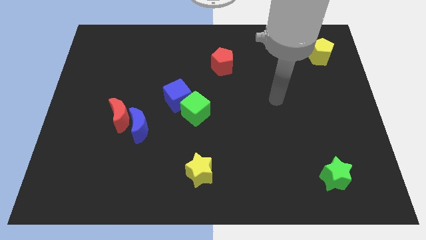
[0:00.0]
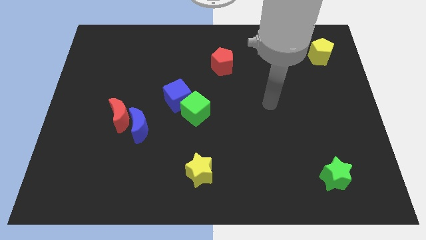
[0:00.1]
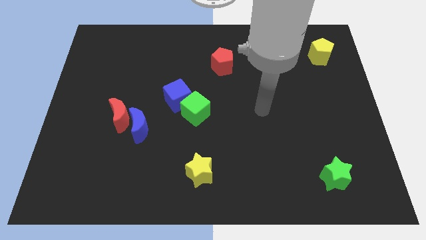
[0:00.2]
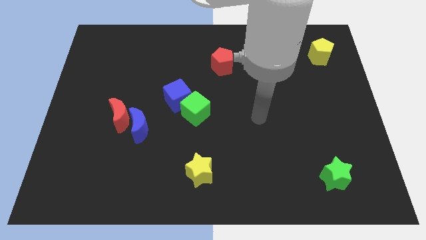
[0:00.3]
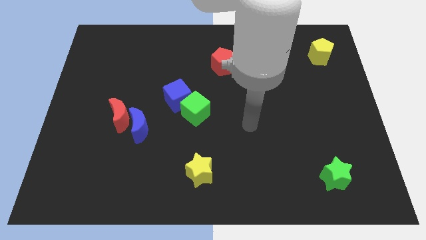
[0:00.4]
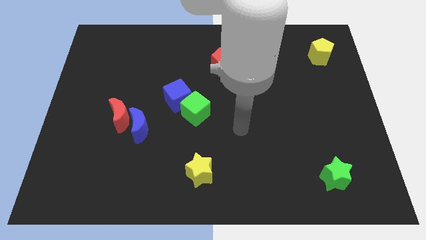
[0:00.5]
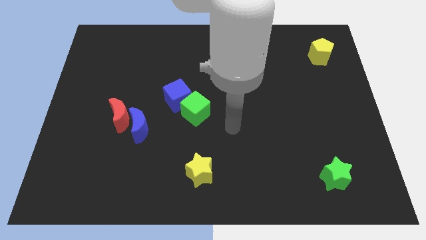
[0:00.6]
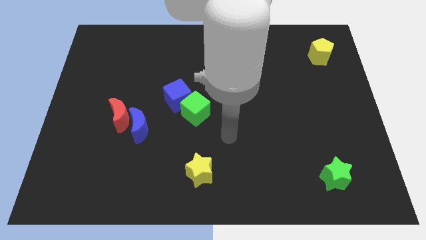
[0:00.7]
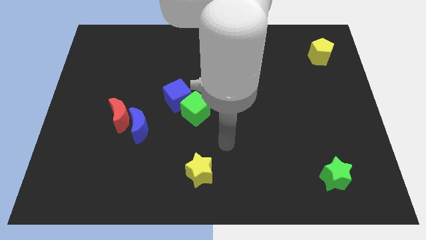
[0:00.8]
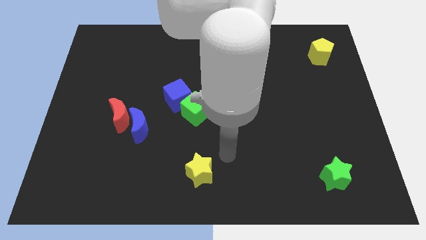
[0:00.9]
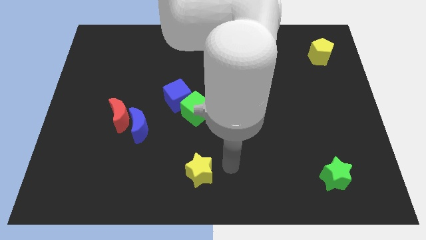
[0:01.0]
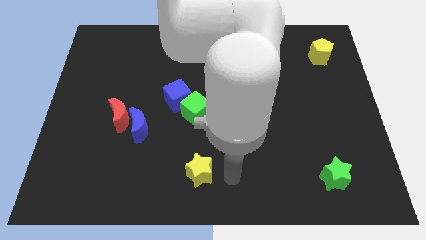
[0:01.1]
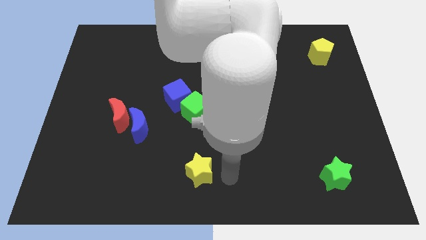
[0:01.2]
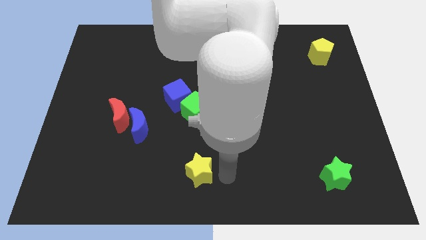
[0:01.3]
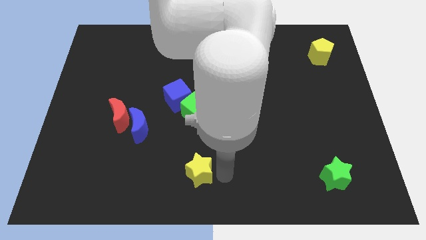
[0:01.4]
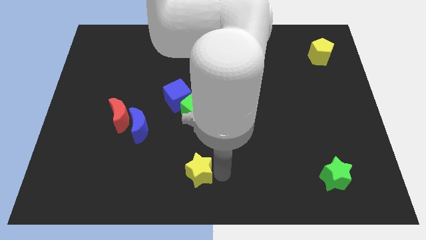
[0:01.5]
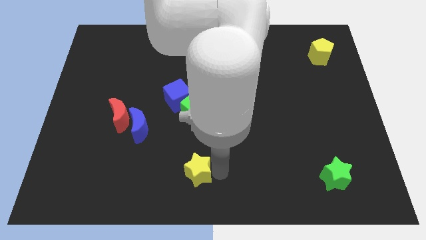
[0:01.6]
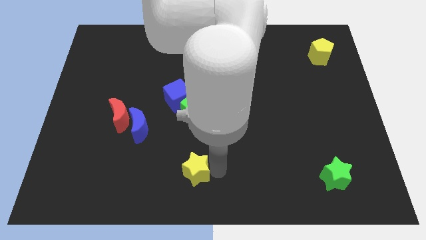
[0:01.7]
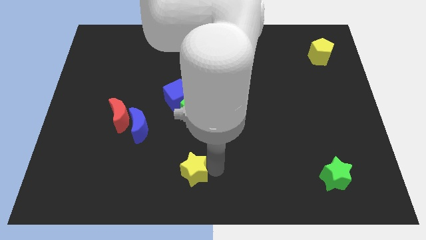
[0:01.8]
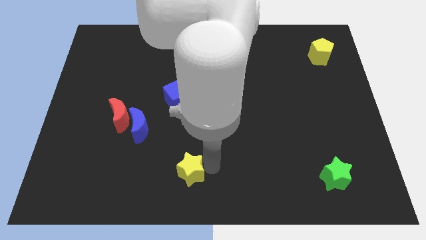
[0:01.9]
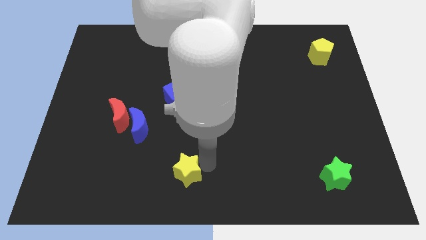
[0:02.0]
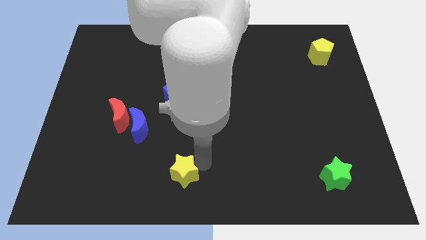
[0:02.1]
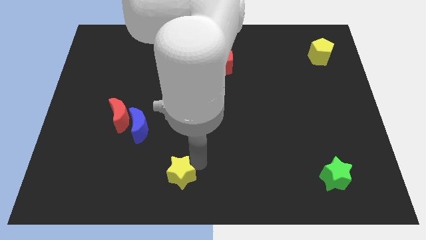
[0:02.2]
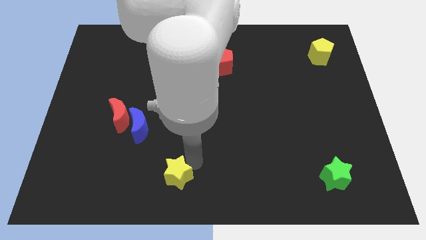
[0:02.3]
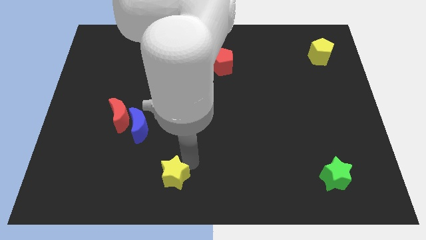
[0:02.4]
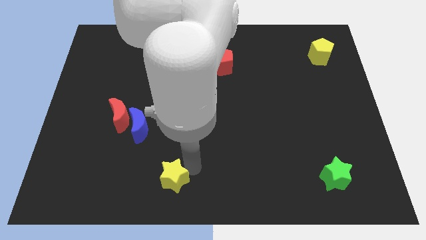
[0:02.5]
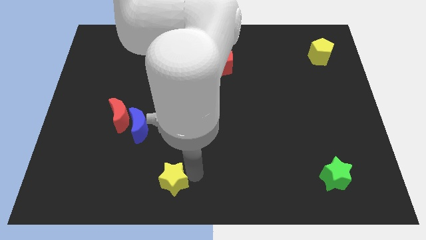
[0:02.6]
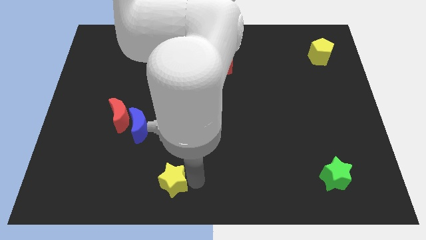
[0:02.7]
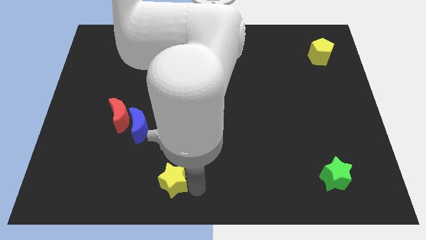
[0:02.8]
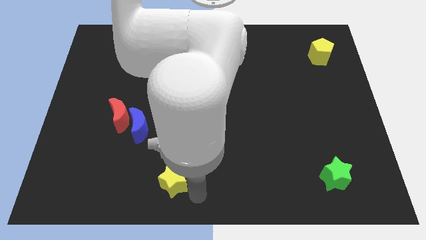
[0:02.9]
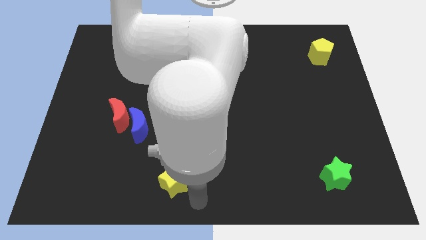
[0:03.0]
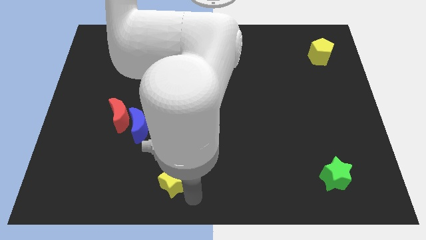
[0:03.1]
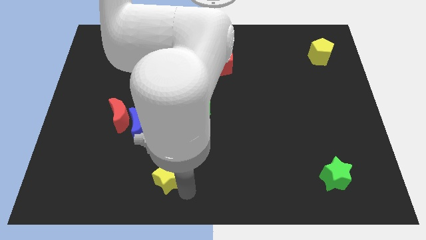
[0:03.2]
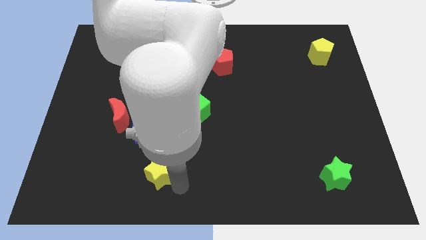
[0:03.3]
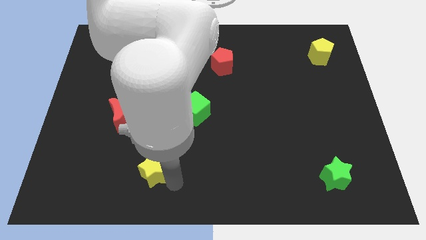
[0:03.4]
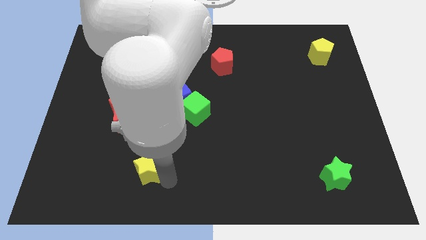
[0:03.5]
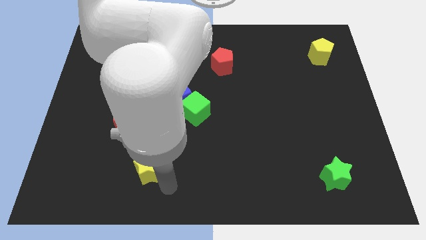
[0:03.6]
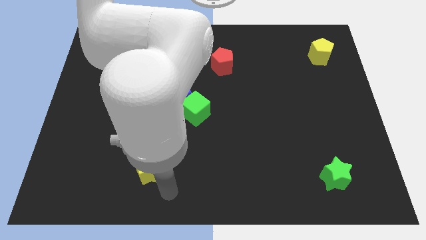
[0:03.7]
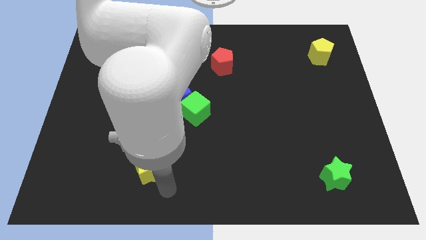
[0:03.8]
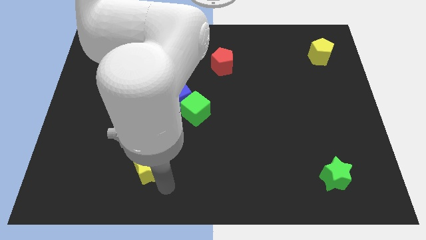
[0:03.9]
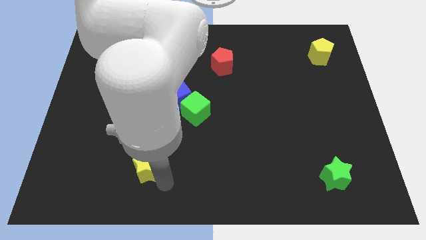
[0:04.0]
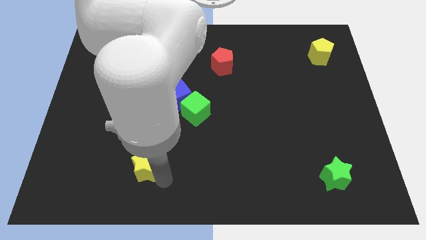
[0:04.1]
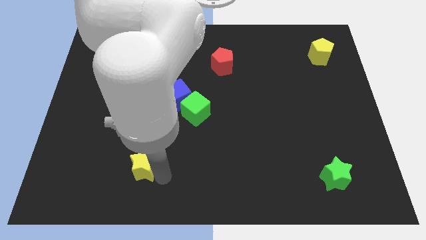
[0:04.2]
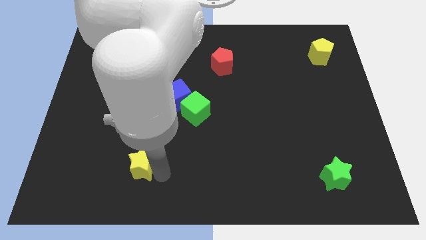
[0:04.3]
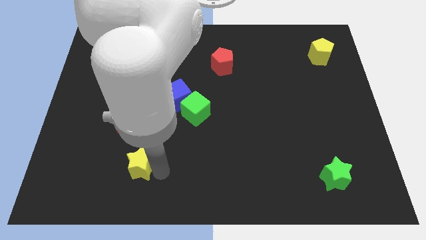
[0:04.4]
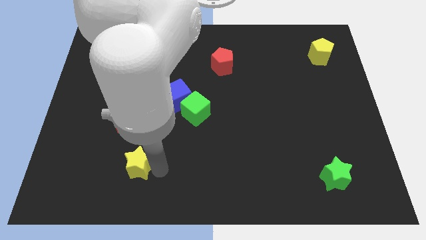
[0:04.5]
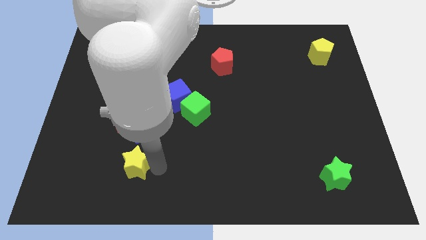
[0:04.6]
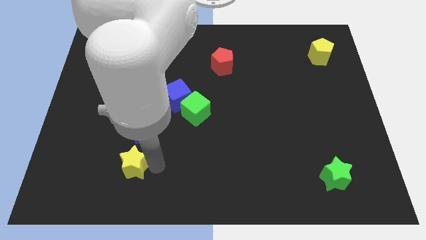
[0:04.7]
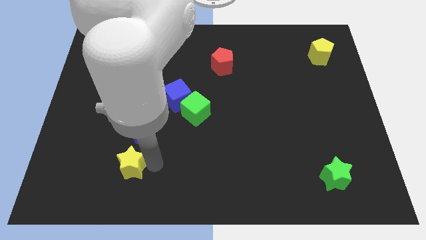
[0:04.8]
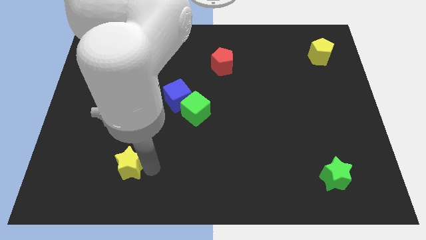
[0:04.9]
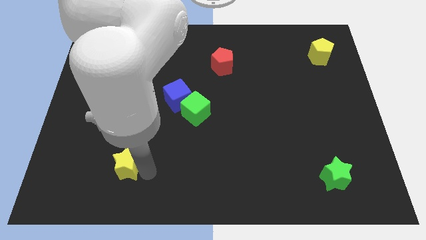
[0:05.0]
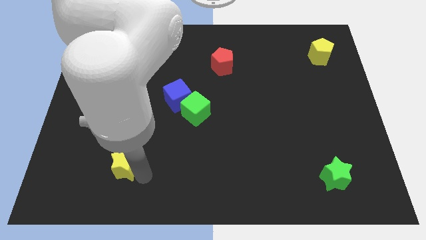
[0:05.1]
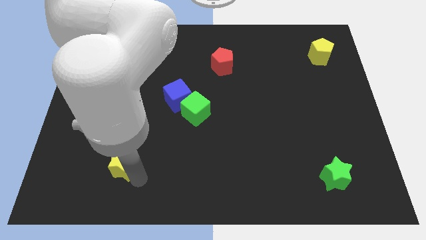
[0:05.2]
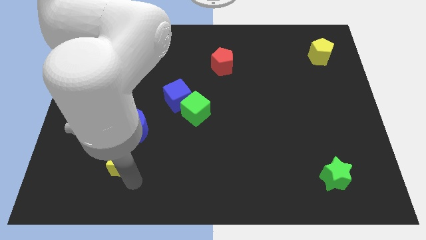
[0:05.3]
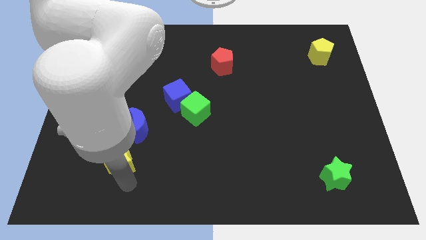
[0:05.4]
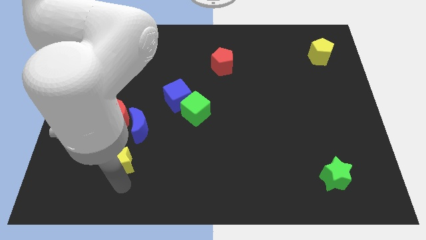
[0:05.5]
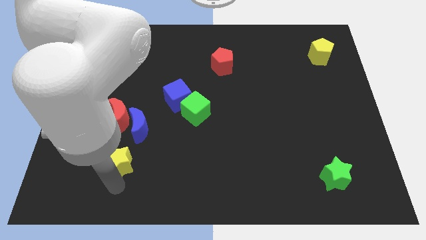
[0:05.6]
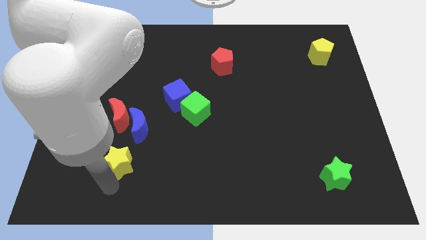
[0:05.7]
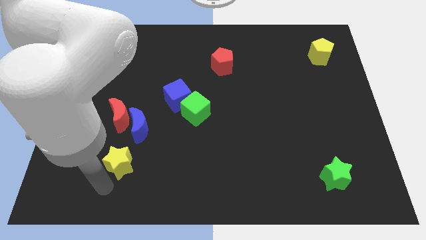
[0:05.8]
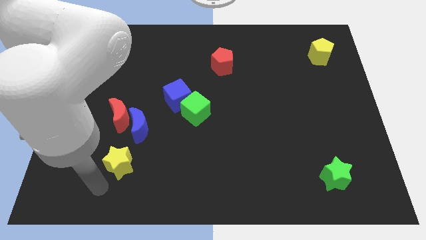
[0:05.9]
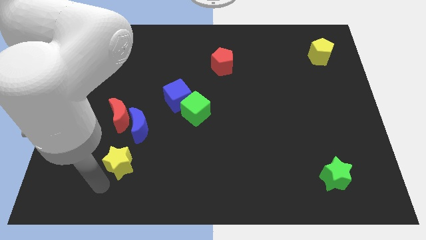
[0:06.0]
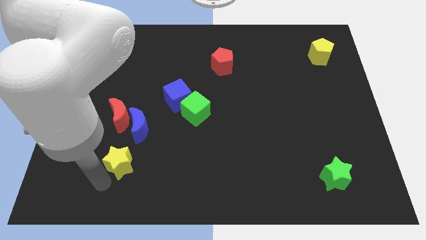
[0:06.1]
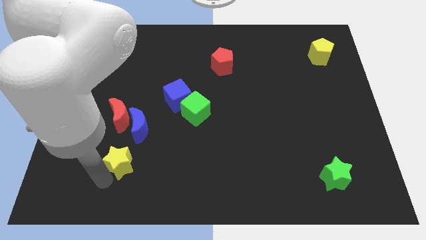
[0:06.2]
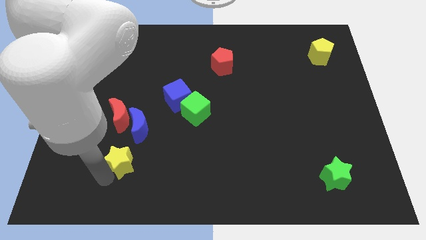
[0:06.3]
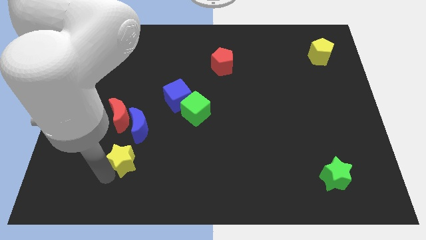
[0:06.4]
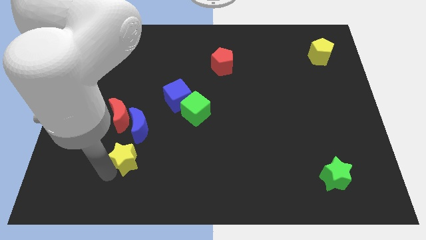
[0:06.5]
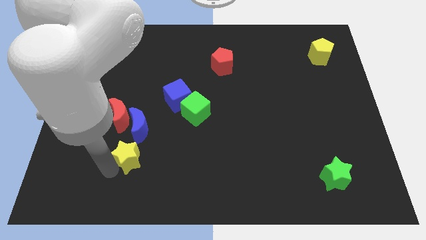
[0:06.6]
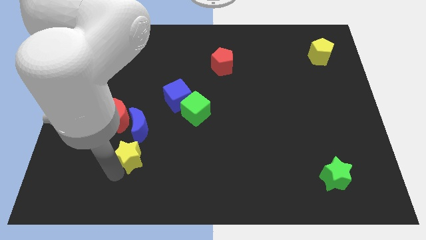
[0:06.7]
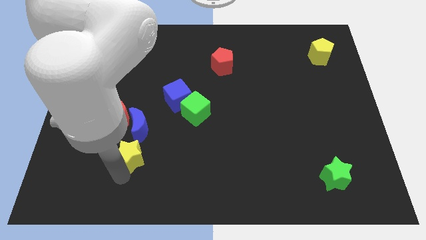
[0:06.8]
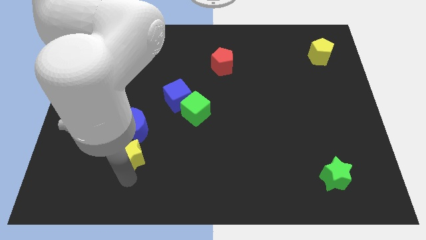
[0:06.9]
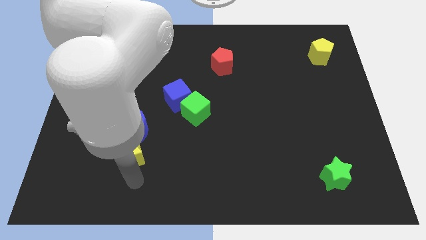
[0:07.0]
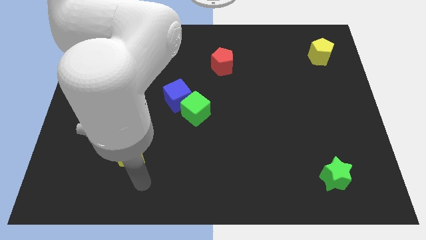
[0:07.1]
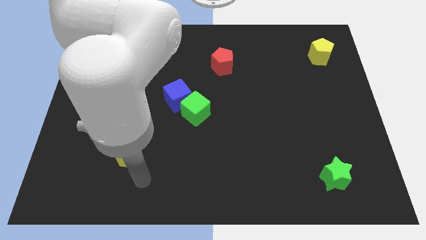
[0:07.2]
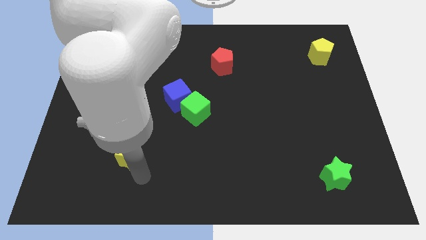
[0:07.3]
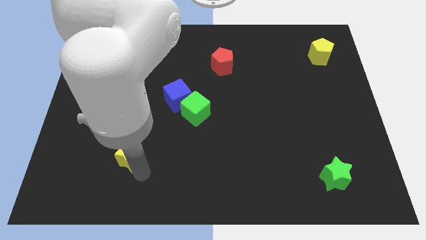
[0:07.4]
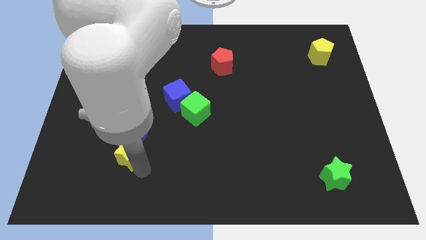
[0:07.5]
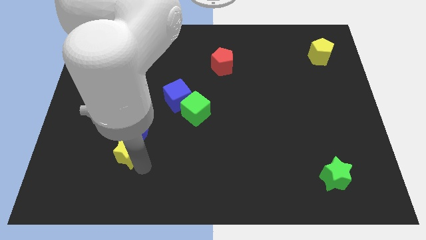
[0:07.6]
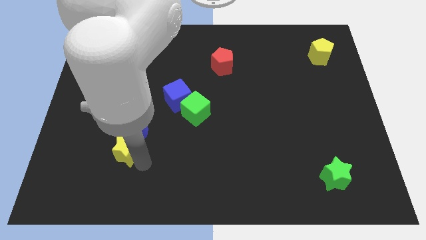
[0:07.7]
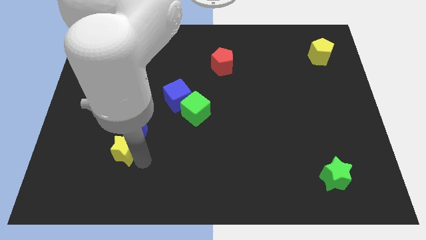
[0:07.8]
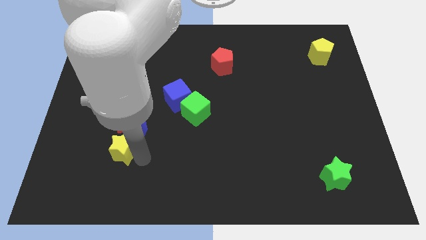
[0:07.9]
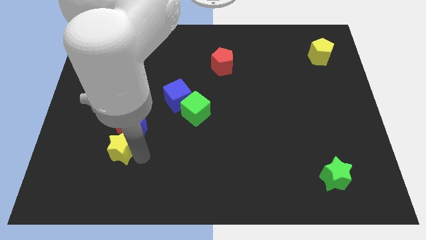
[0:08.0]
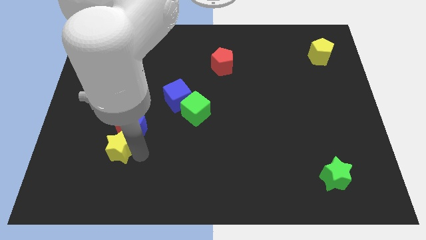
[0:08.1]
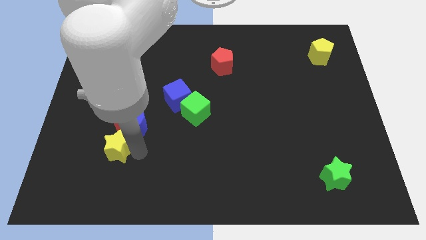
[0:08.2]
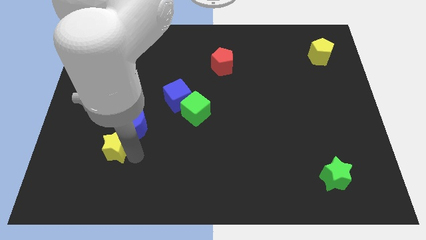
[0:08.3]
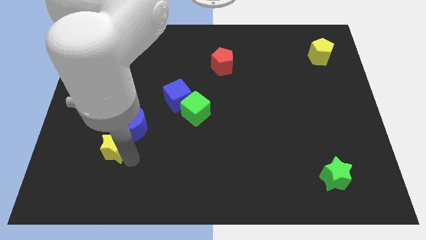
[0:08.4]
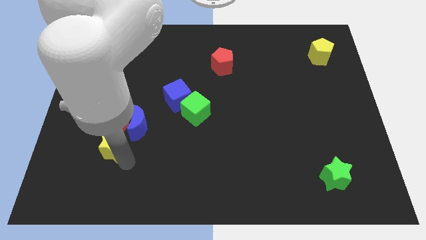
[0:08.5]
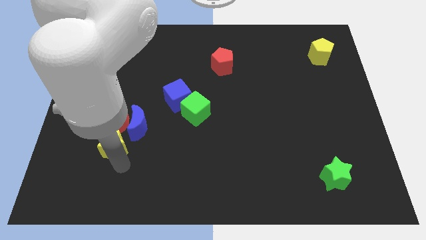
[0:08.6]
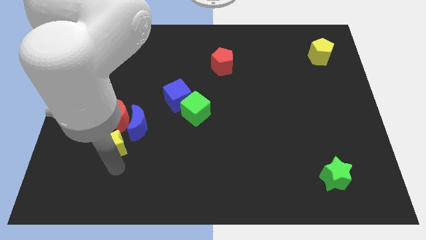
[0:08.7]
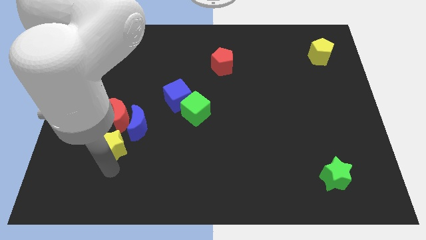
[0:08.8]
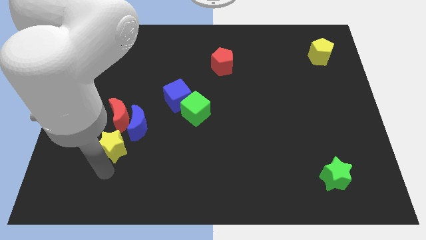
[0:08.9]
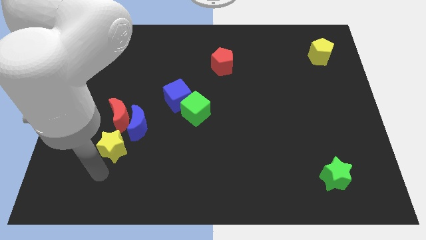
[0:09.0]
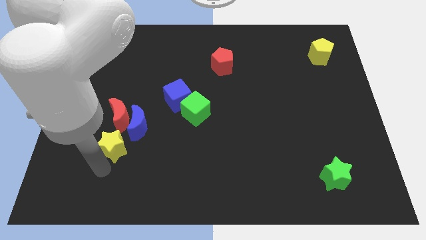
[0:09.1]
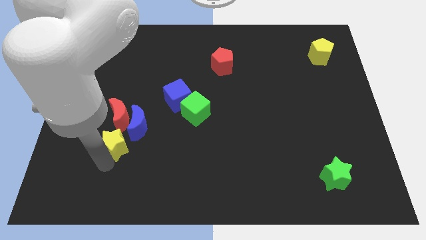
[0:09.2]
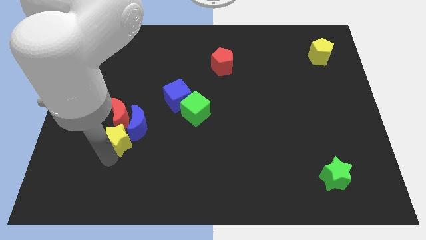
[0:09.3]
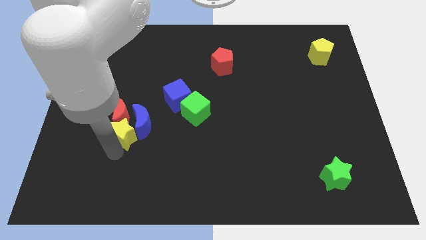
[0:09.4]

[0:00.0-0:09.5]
move the yellow star close to the red moon
